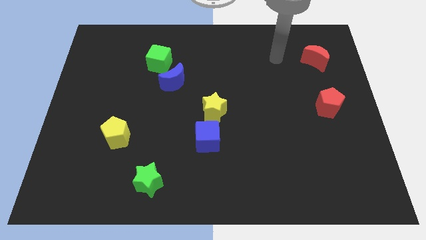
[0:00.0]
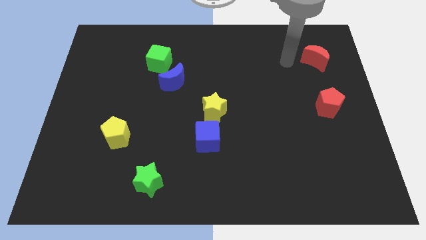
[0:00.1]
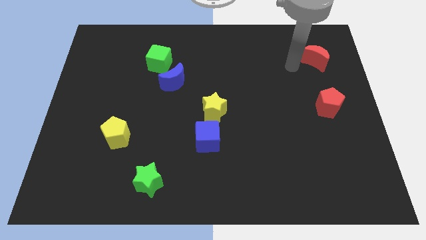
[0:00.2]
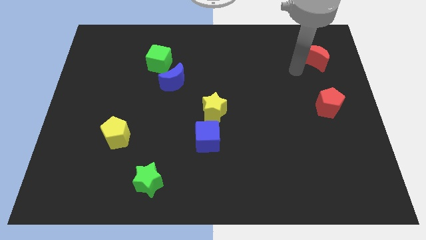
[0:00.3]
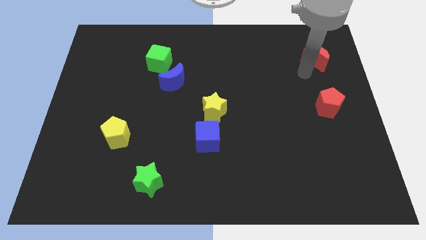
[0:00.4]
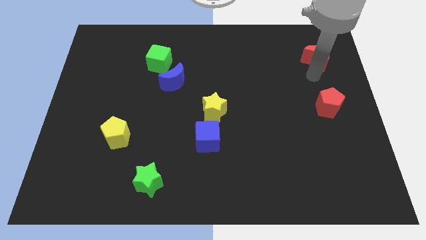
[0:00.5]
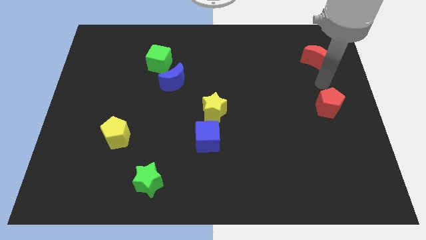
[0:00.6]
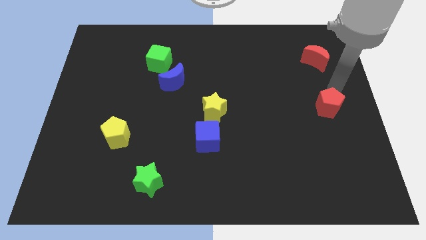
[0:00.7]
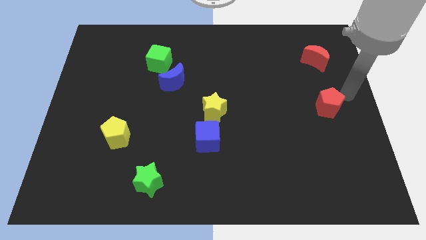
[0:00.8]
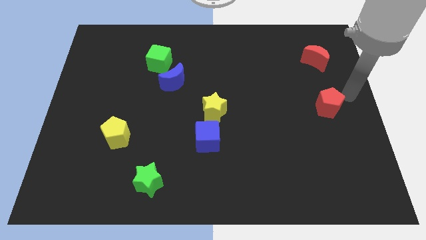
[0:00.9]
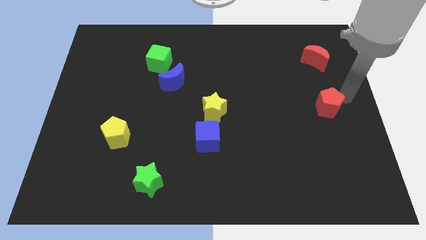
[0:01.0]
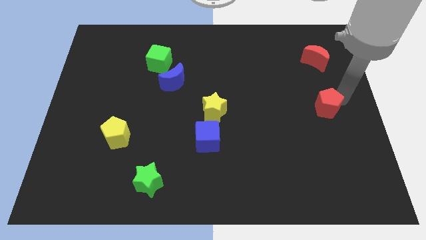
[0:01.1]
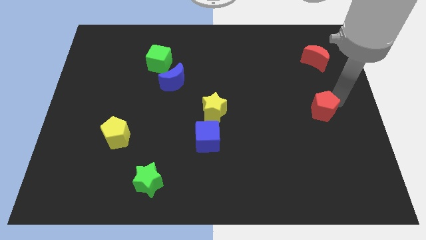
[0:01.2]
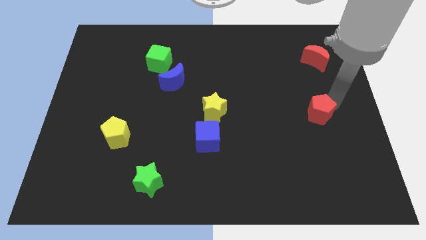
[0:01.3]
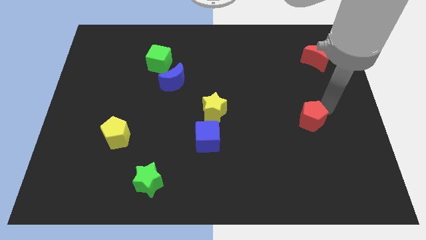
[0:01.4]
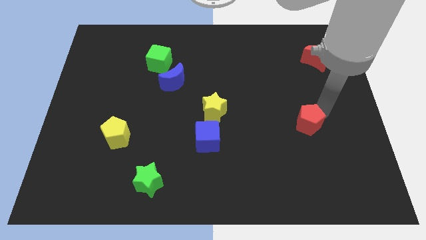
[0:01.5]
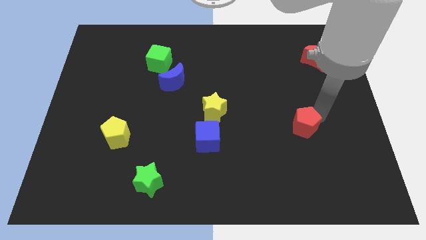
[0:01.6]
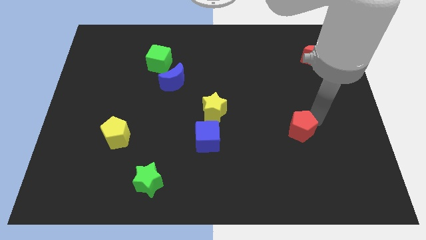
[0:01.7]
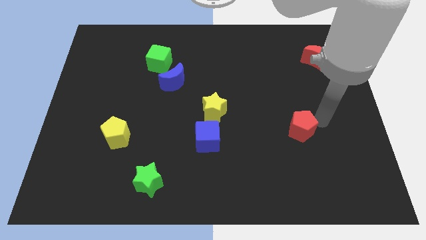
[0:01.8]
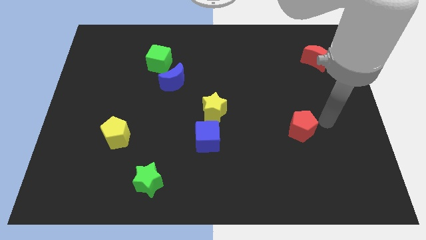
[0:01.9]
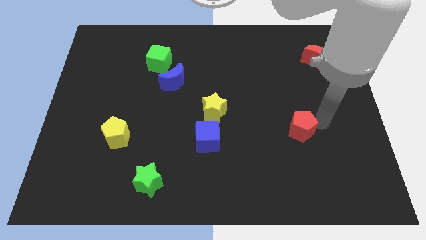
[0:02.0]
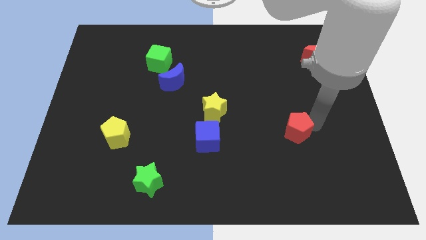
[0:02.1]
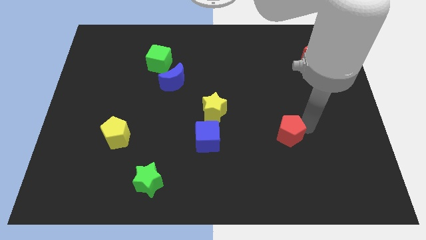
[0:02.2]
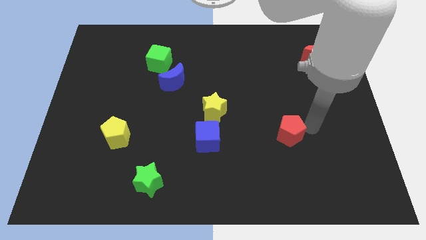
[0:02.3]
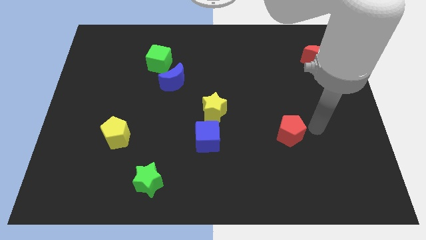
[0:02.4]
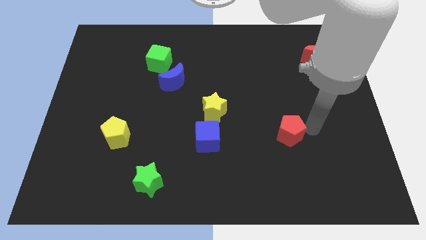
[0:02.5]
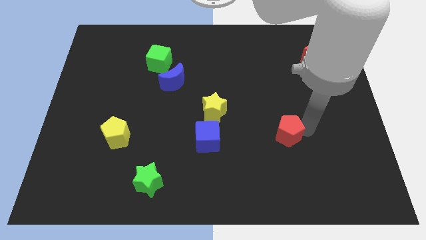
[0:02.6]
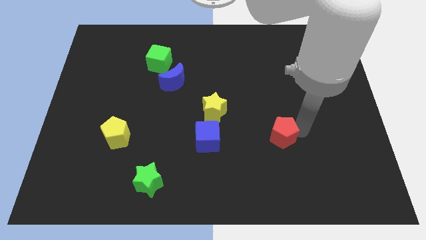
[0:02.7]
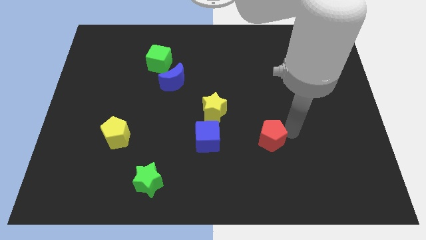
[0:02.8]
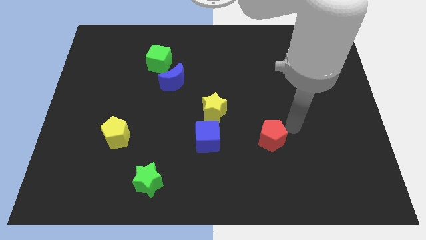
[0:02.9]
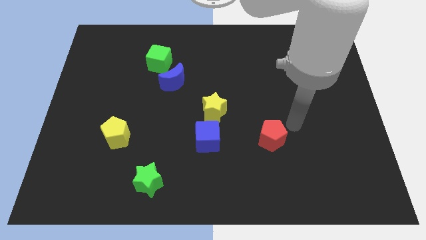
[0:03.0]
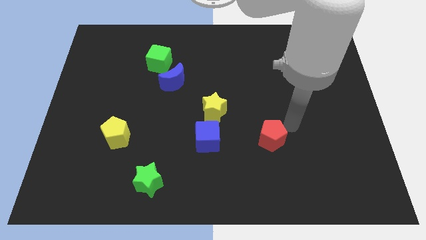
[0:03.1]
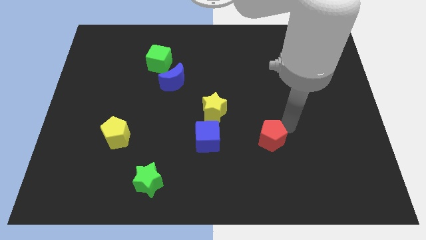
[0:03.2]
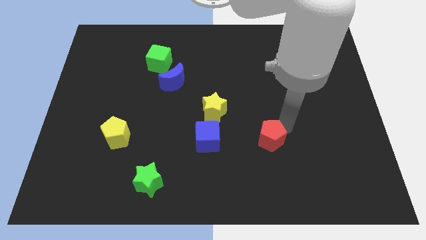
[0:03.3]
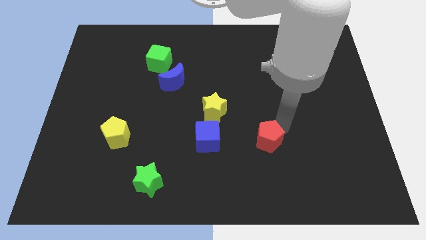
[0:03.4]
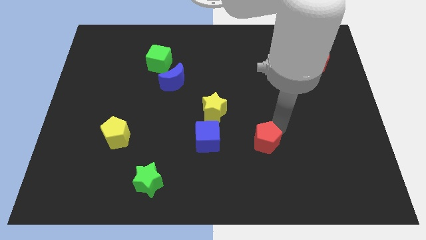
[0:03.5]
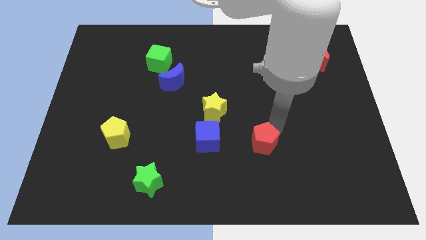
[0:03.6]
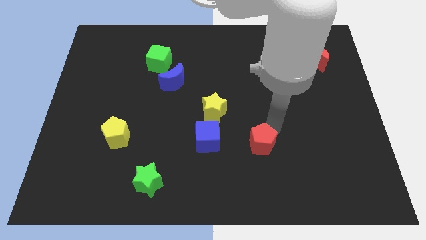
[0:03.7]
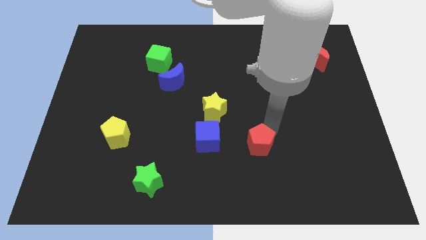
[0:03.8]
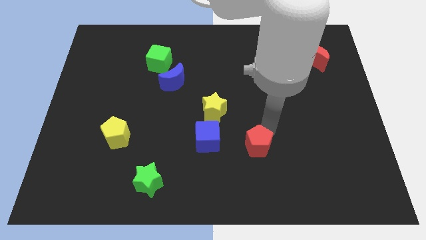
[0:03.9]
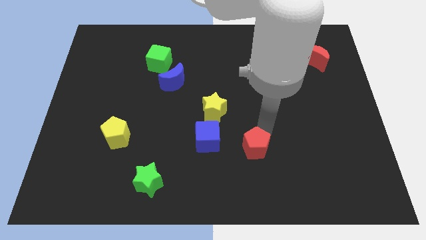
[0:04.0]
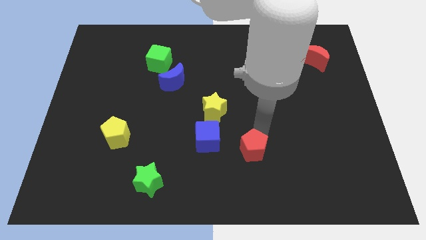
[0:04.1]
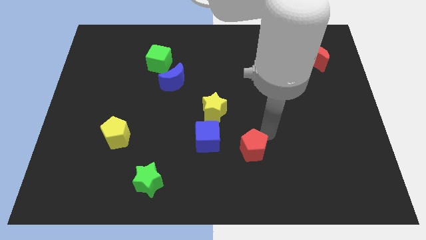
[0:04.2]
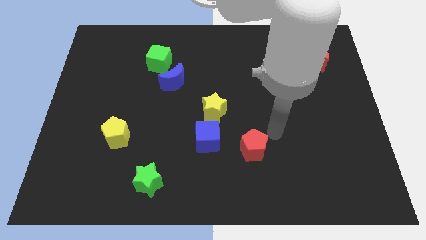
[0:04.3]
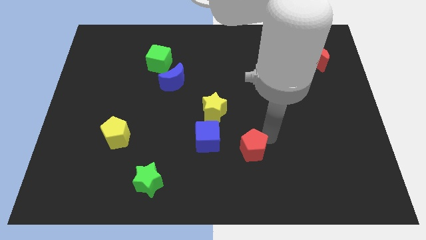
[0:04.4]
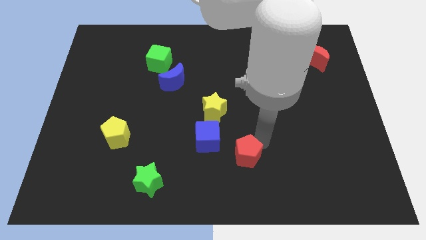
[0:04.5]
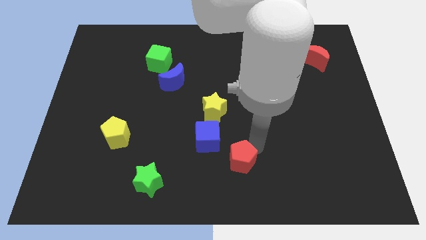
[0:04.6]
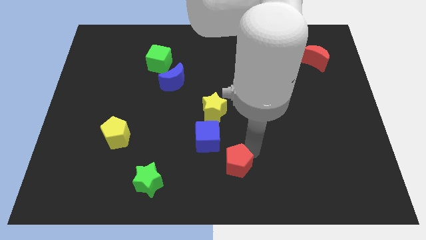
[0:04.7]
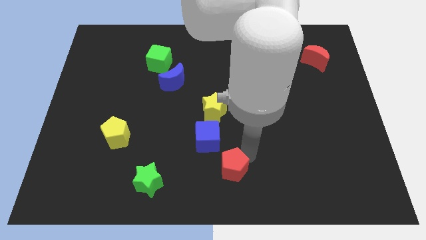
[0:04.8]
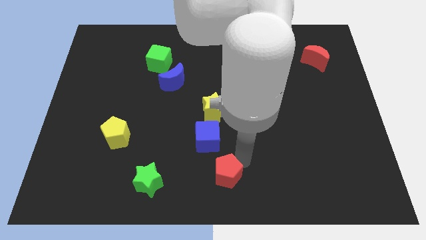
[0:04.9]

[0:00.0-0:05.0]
push the red pentagon to the right of the green star

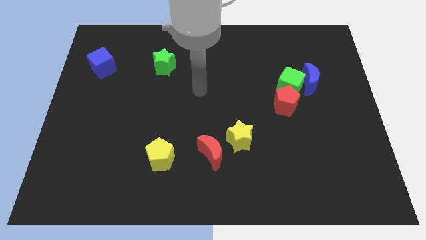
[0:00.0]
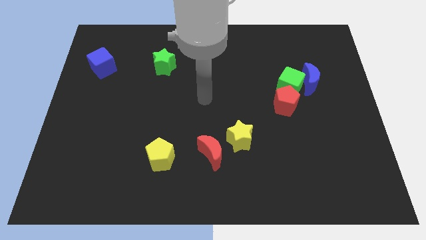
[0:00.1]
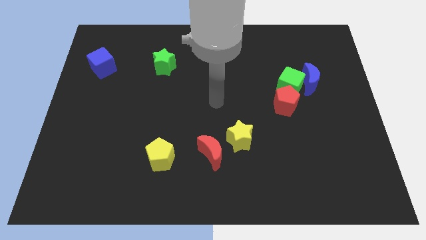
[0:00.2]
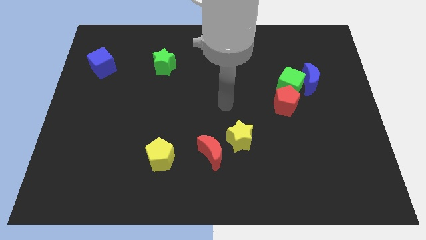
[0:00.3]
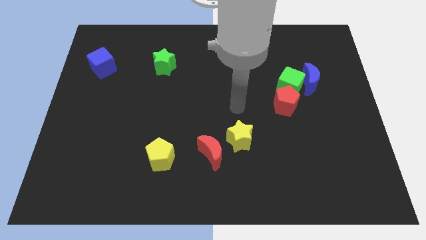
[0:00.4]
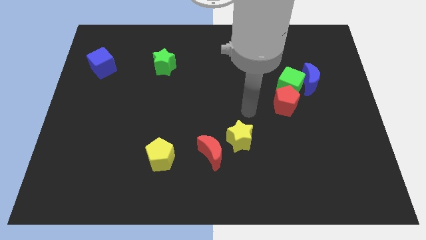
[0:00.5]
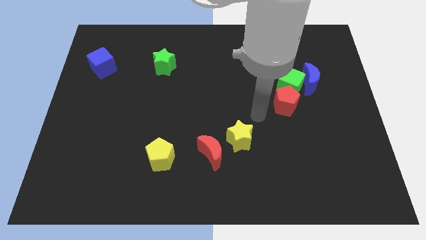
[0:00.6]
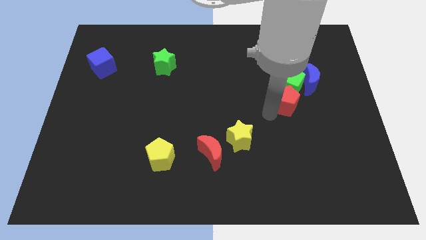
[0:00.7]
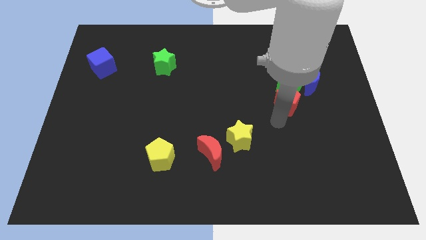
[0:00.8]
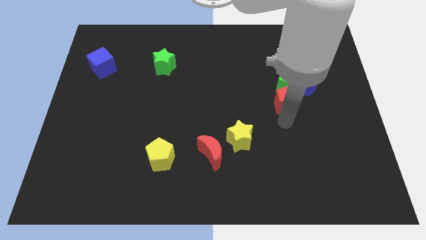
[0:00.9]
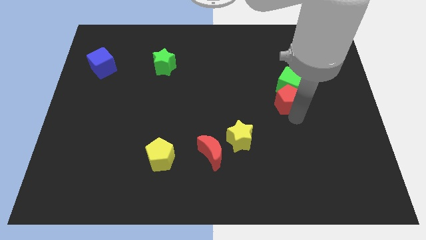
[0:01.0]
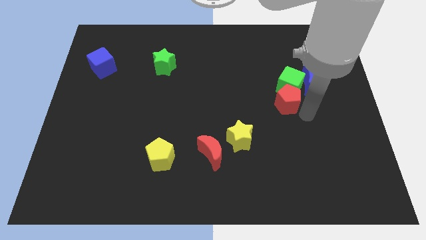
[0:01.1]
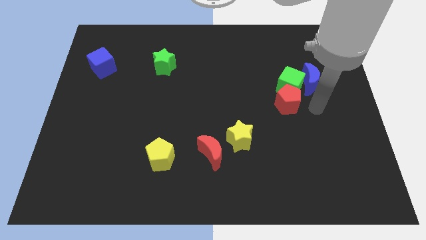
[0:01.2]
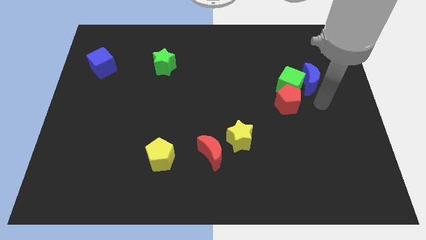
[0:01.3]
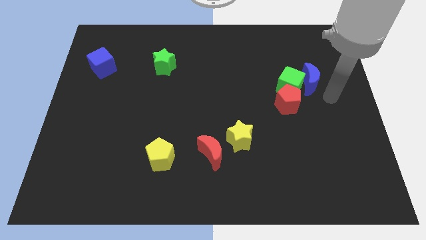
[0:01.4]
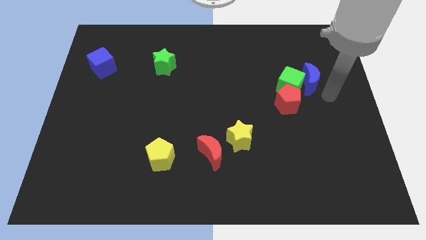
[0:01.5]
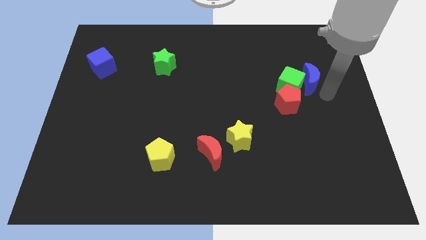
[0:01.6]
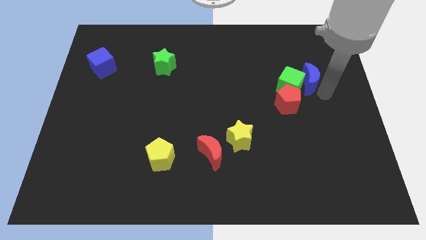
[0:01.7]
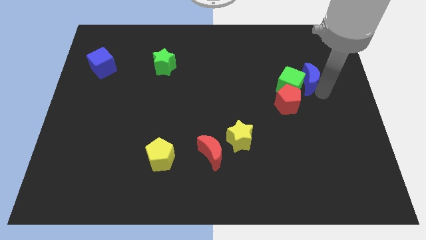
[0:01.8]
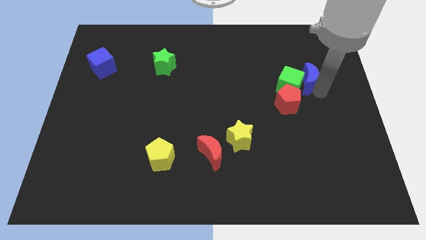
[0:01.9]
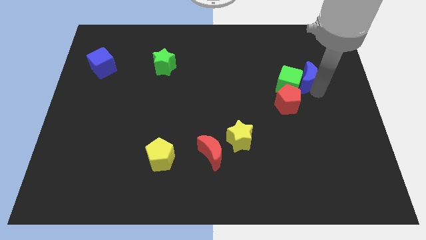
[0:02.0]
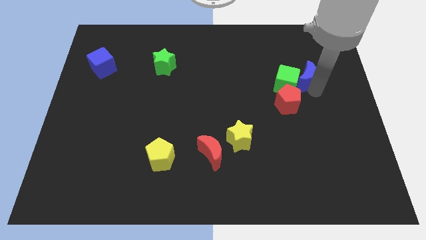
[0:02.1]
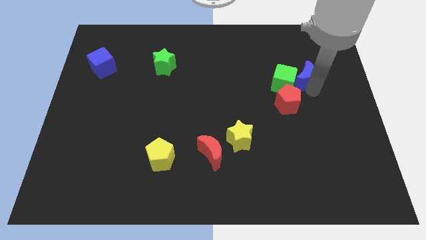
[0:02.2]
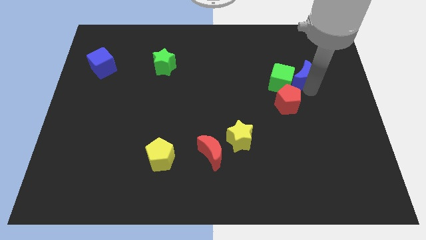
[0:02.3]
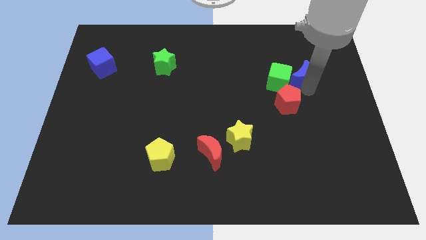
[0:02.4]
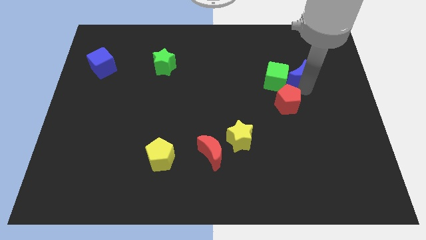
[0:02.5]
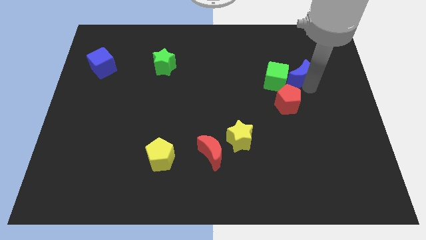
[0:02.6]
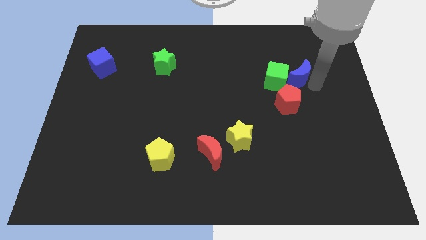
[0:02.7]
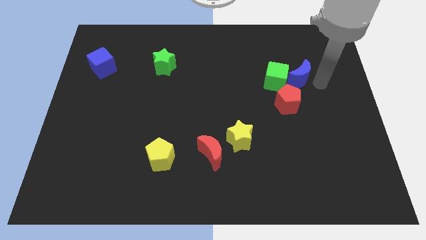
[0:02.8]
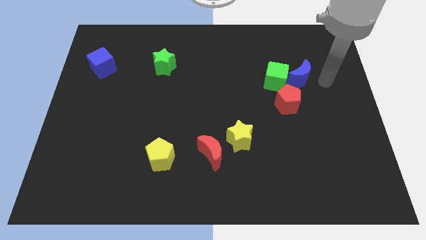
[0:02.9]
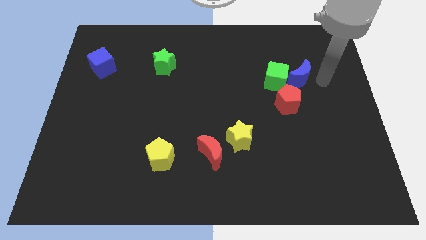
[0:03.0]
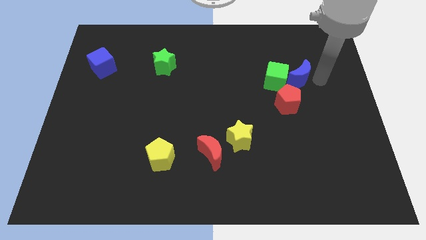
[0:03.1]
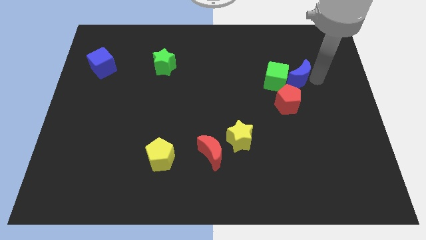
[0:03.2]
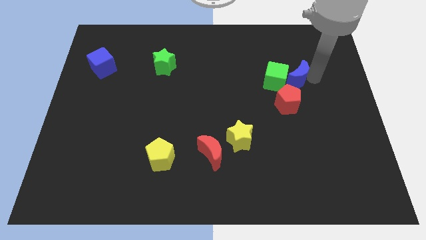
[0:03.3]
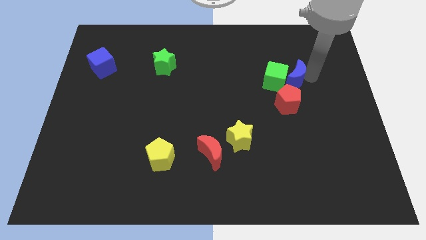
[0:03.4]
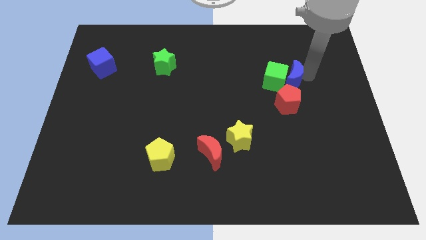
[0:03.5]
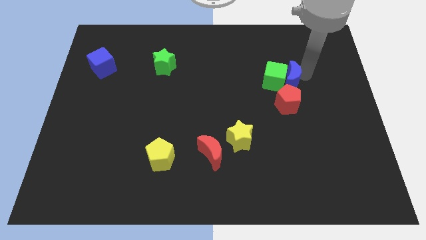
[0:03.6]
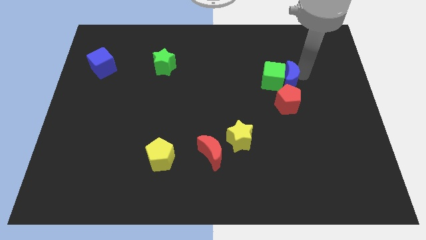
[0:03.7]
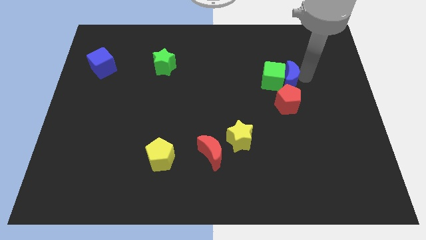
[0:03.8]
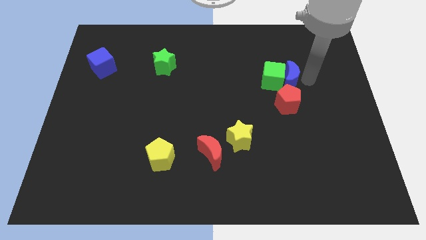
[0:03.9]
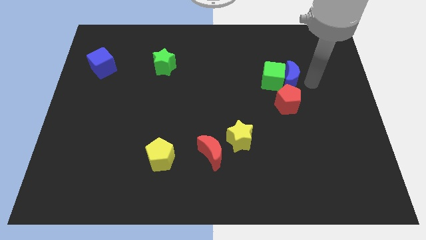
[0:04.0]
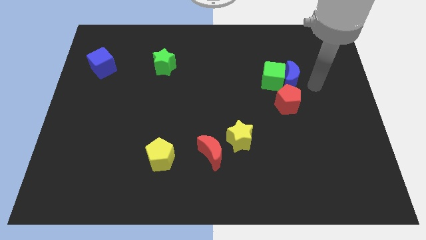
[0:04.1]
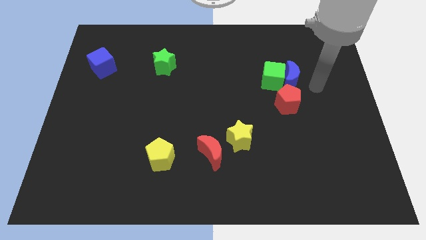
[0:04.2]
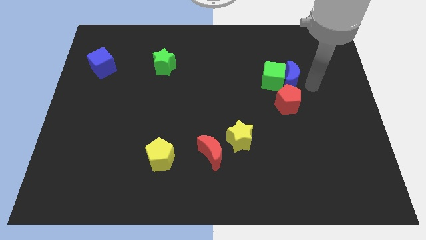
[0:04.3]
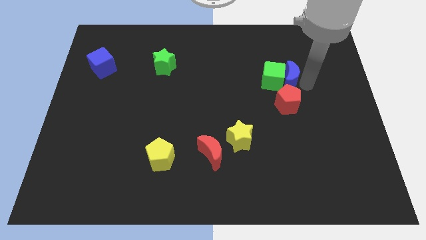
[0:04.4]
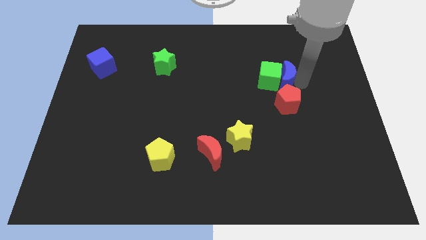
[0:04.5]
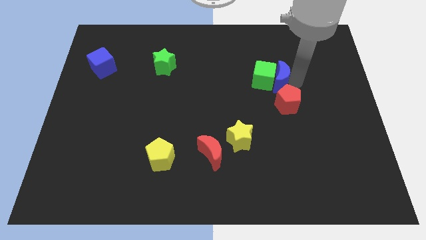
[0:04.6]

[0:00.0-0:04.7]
push the blue moon to the top left of the red pentagon
